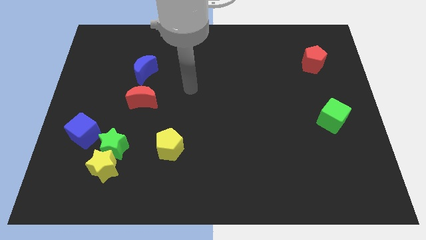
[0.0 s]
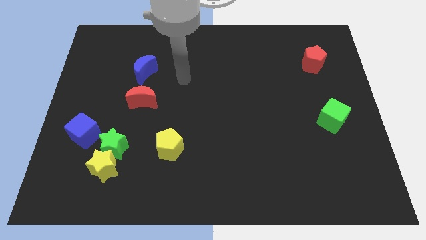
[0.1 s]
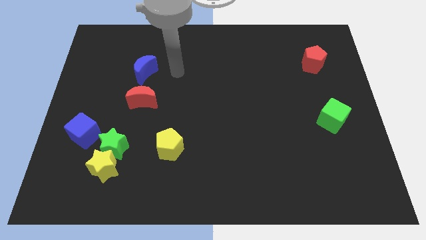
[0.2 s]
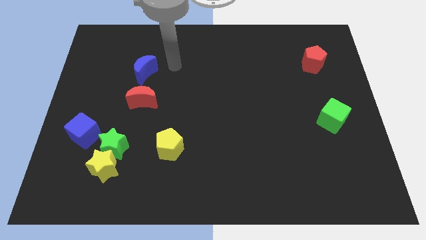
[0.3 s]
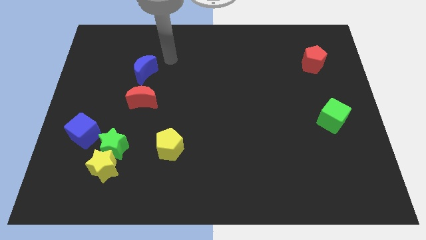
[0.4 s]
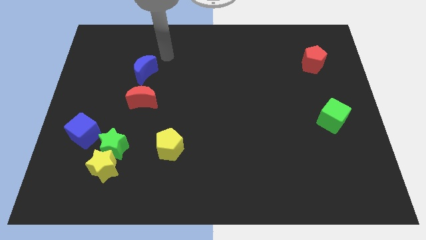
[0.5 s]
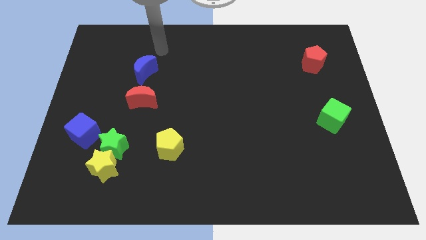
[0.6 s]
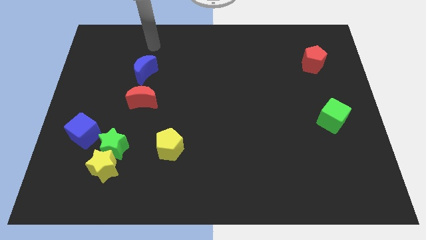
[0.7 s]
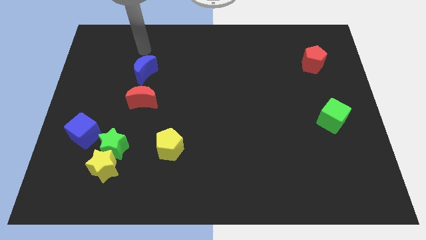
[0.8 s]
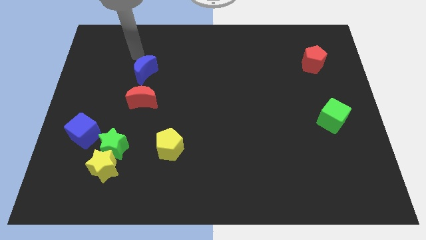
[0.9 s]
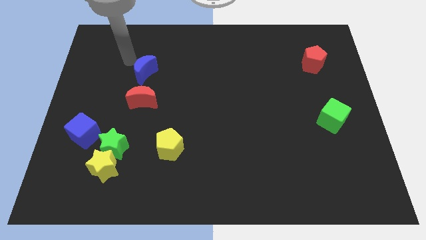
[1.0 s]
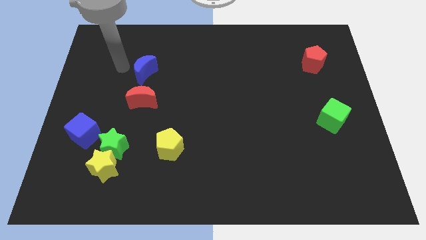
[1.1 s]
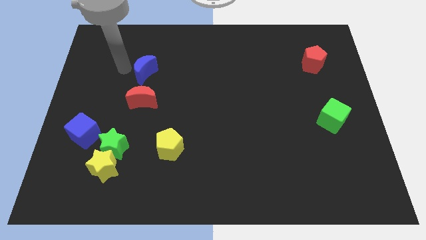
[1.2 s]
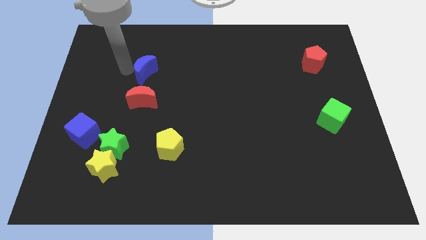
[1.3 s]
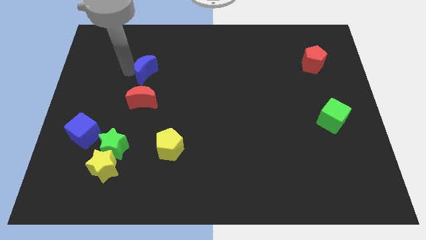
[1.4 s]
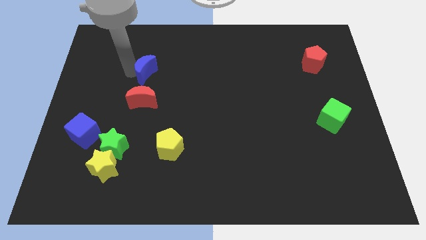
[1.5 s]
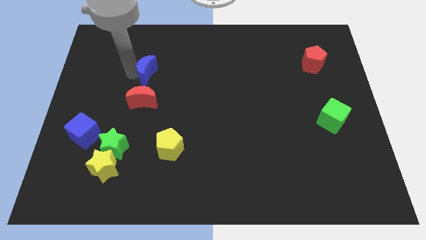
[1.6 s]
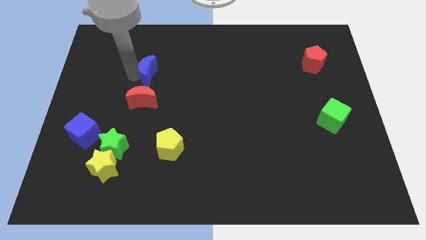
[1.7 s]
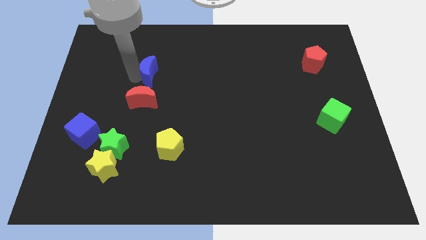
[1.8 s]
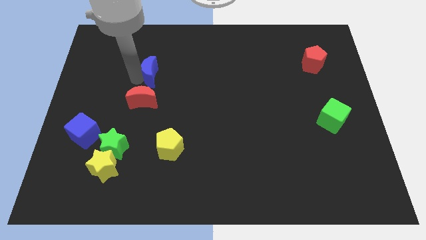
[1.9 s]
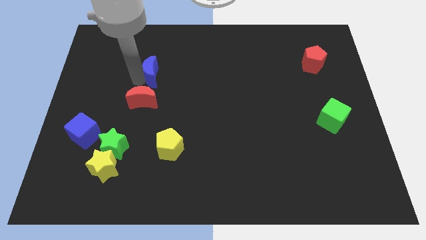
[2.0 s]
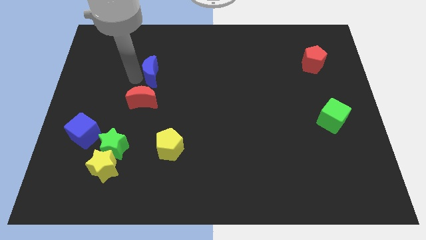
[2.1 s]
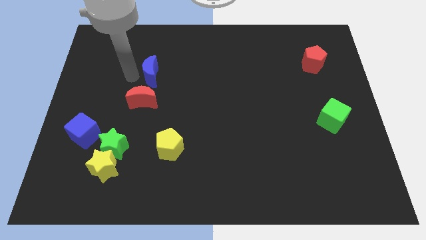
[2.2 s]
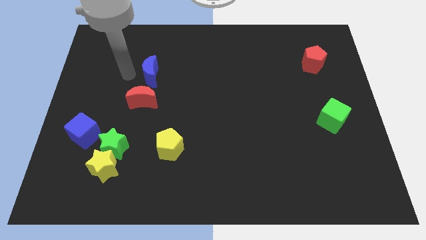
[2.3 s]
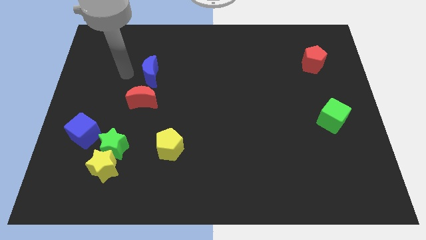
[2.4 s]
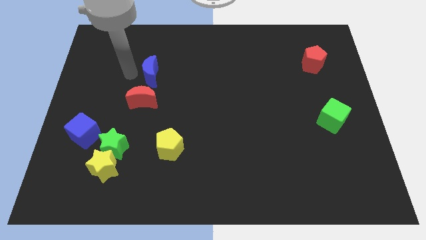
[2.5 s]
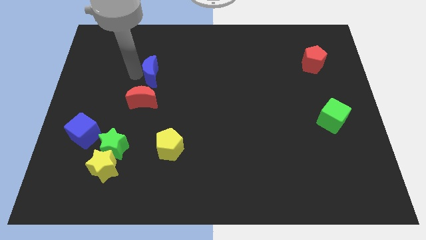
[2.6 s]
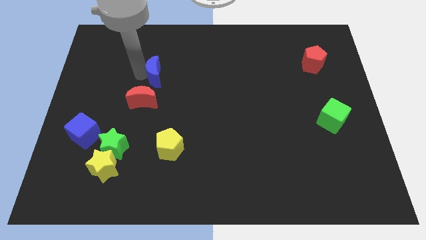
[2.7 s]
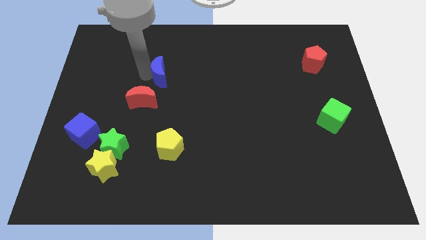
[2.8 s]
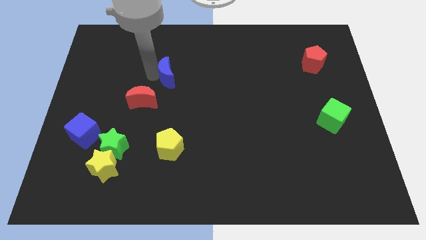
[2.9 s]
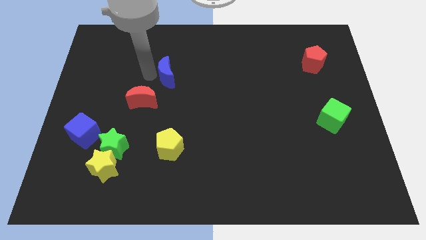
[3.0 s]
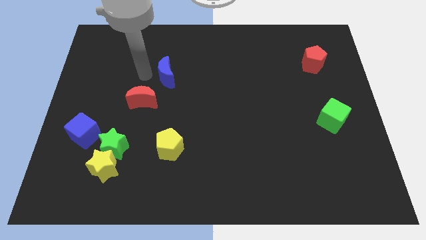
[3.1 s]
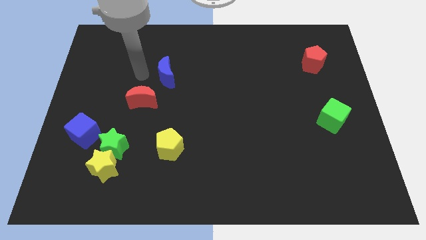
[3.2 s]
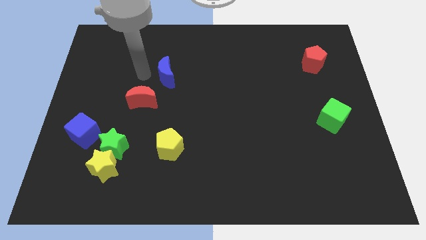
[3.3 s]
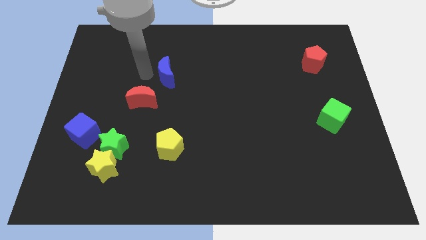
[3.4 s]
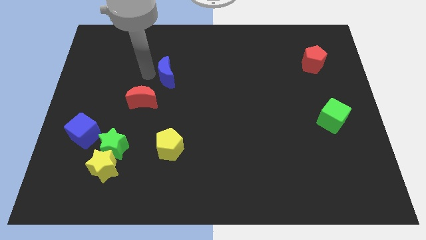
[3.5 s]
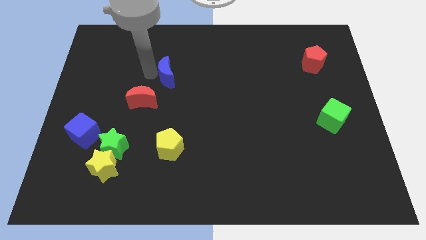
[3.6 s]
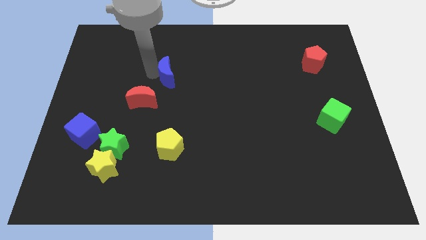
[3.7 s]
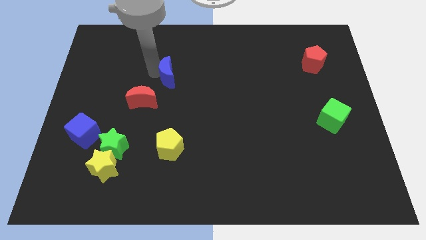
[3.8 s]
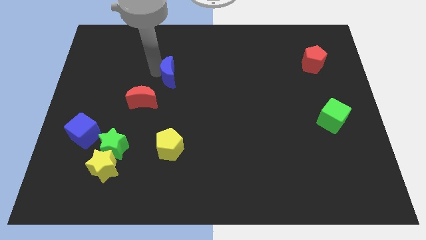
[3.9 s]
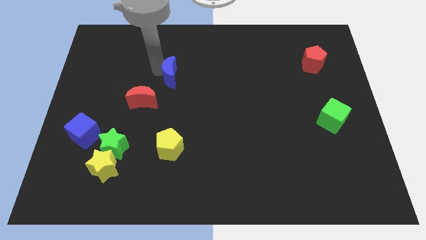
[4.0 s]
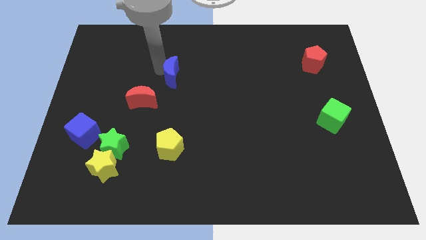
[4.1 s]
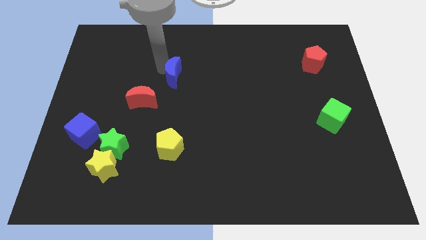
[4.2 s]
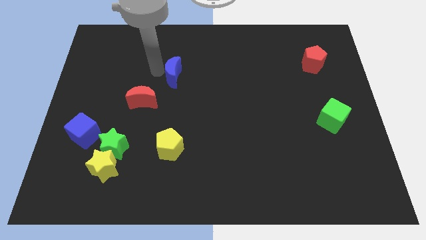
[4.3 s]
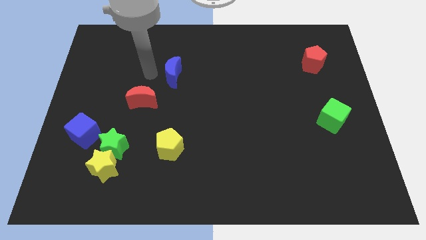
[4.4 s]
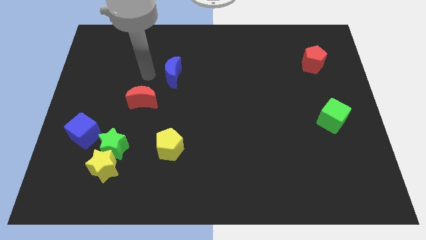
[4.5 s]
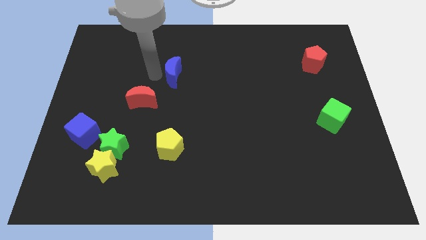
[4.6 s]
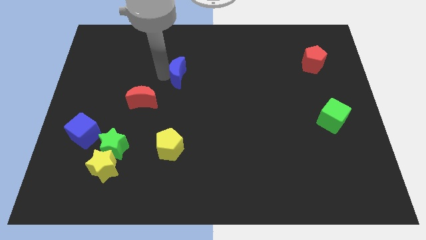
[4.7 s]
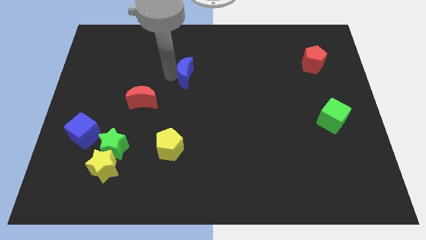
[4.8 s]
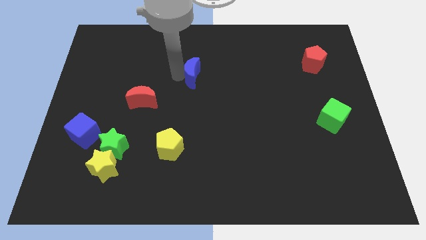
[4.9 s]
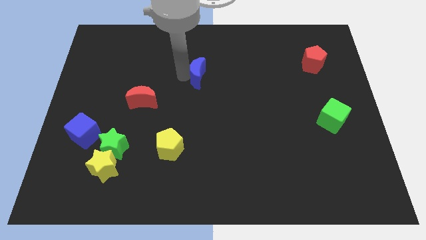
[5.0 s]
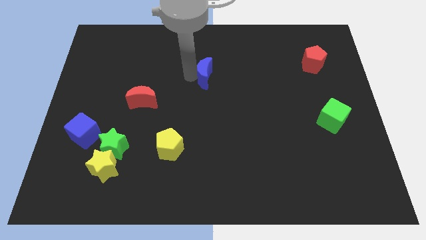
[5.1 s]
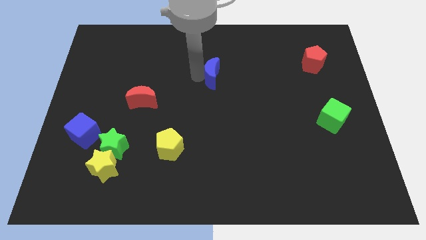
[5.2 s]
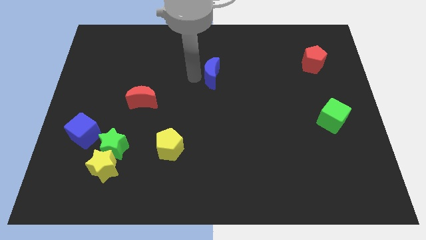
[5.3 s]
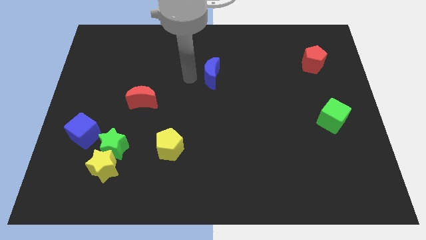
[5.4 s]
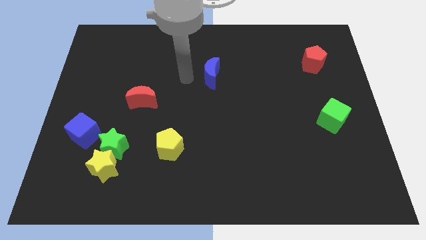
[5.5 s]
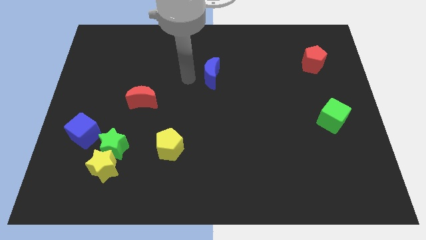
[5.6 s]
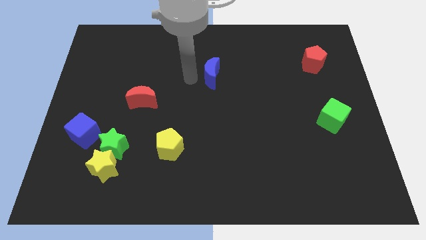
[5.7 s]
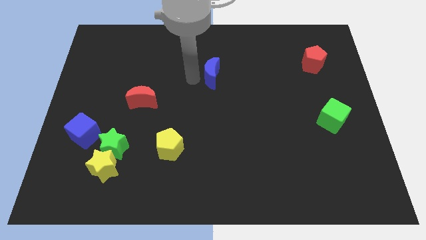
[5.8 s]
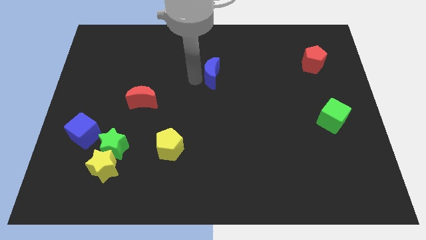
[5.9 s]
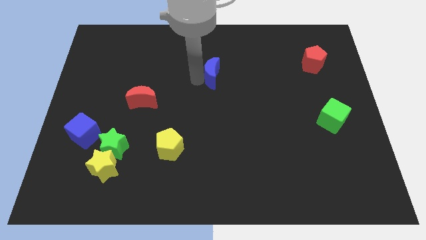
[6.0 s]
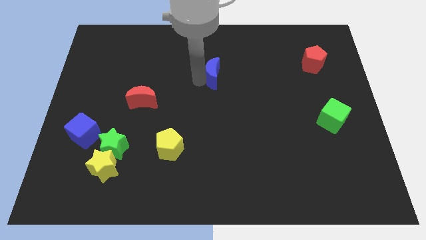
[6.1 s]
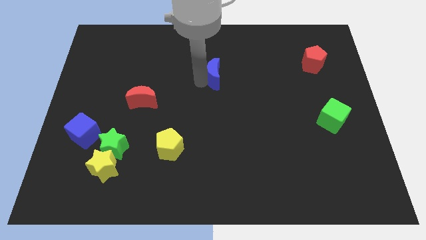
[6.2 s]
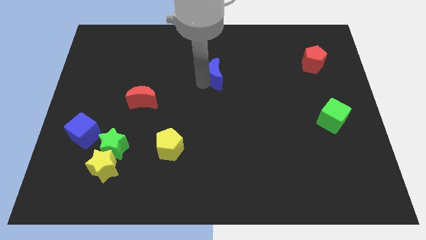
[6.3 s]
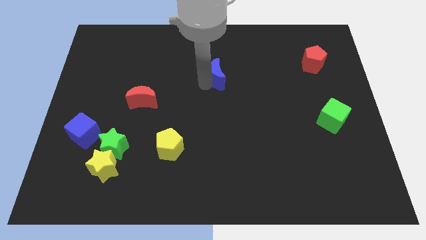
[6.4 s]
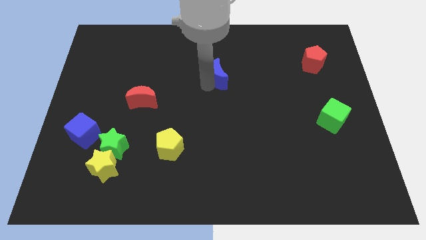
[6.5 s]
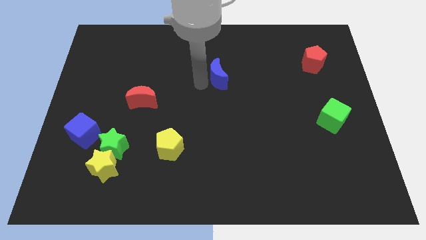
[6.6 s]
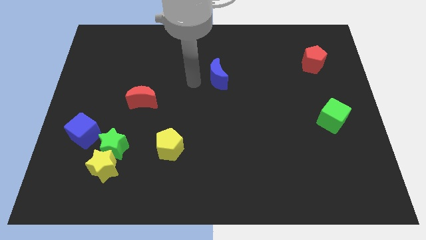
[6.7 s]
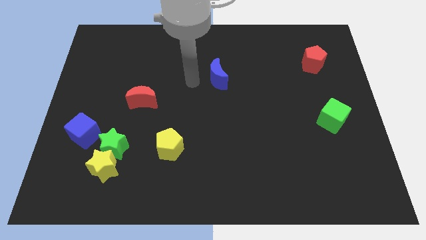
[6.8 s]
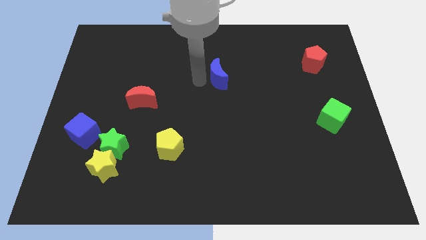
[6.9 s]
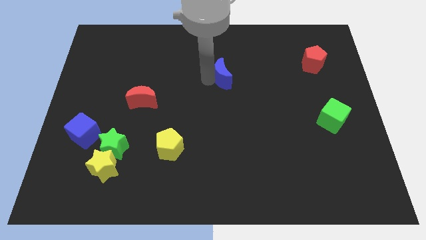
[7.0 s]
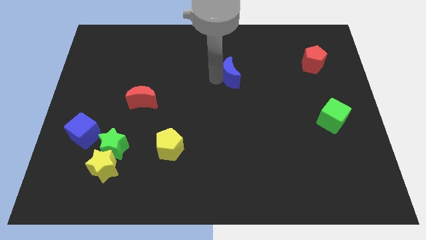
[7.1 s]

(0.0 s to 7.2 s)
slide the blue moon to the right

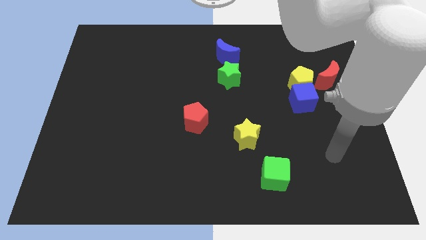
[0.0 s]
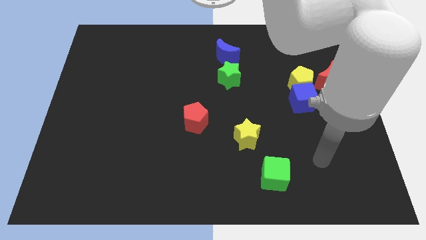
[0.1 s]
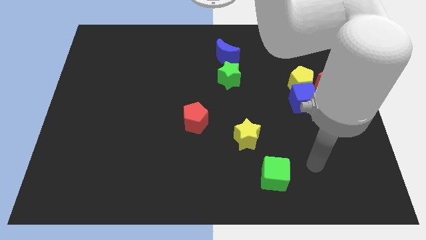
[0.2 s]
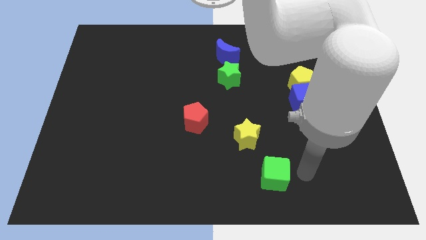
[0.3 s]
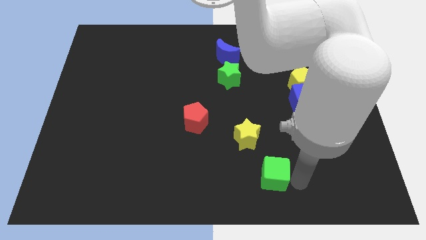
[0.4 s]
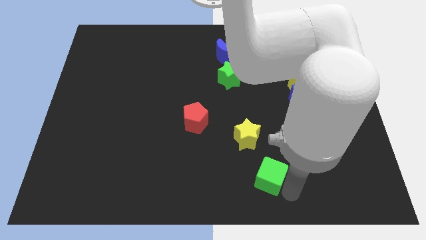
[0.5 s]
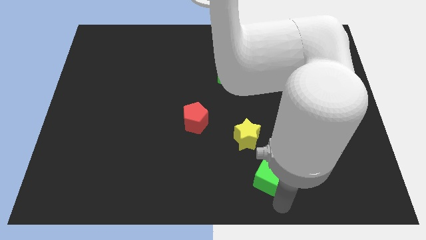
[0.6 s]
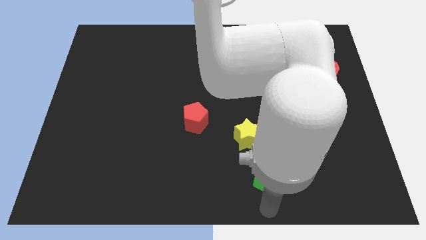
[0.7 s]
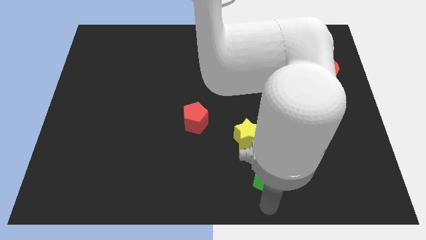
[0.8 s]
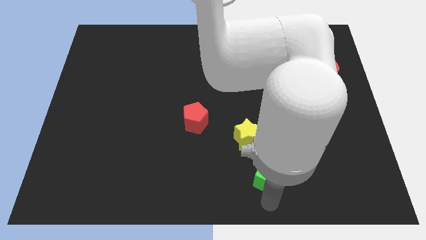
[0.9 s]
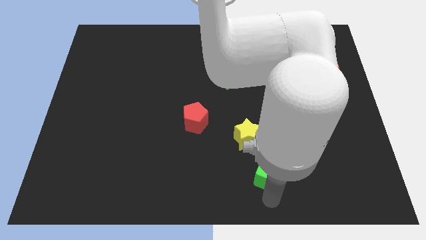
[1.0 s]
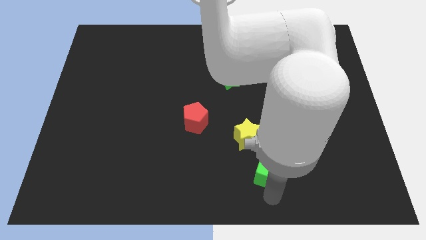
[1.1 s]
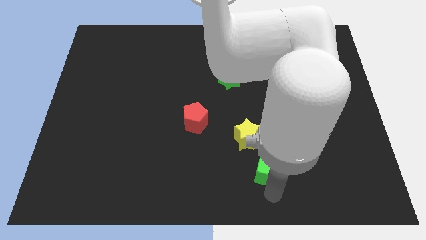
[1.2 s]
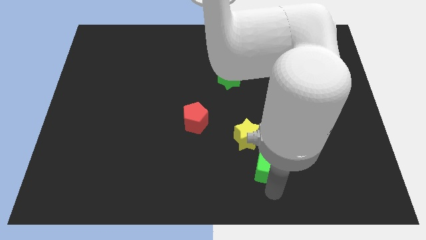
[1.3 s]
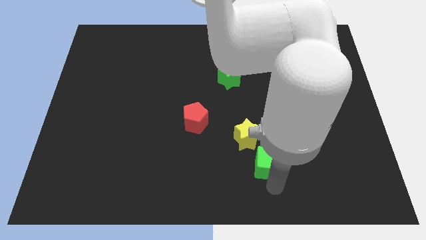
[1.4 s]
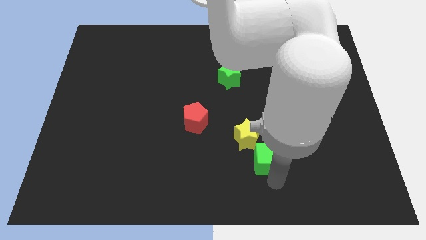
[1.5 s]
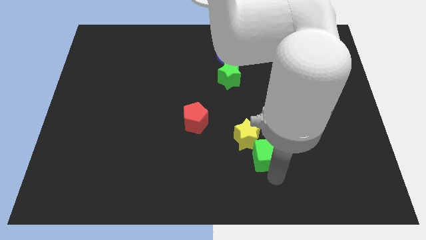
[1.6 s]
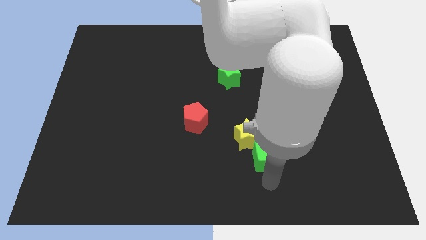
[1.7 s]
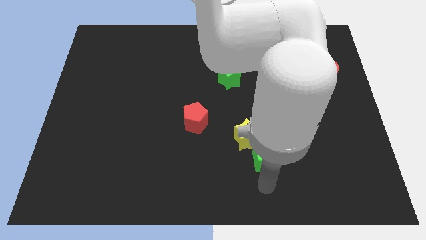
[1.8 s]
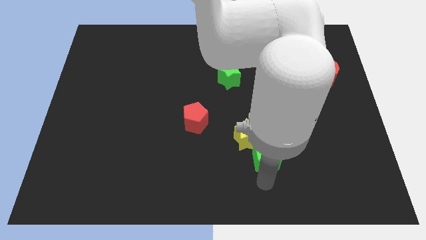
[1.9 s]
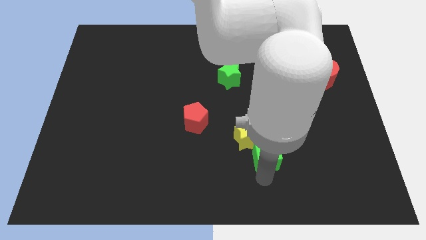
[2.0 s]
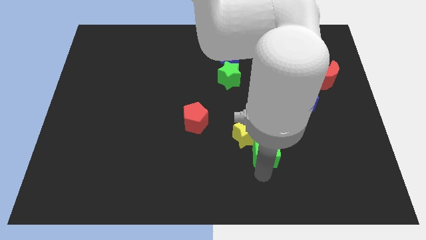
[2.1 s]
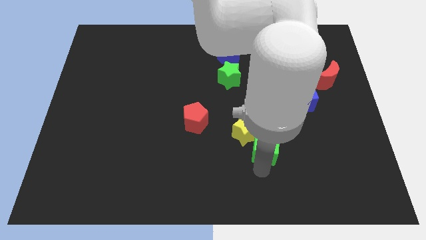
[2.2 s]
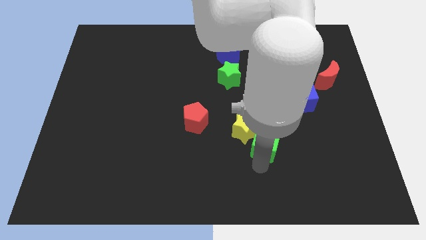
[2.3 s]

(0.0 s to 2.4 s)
slightly move the green cube upwards
